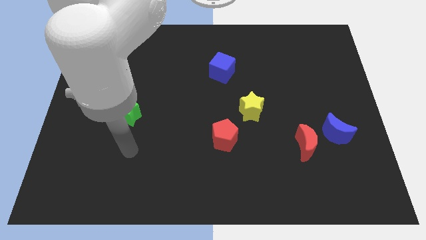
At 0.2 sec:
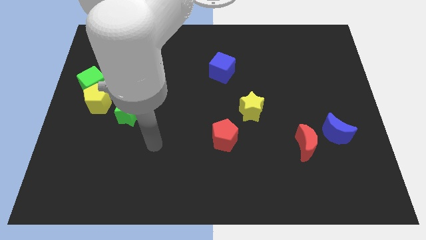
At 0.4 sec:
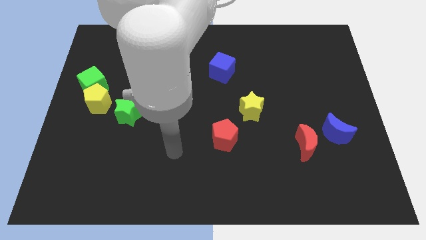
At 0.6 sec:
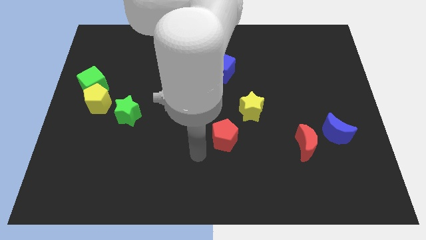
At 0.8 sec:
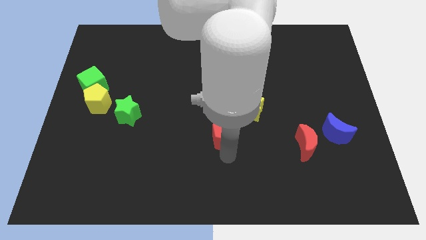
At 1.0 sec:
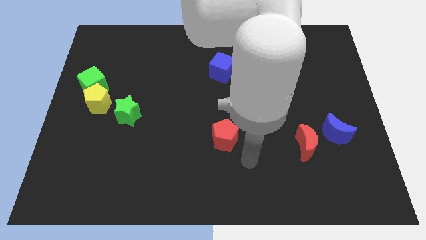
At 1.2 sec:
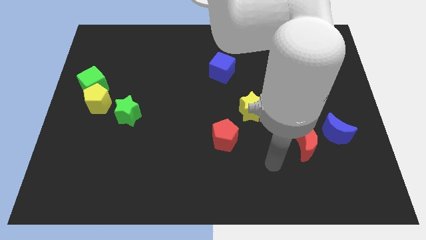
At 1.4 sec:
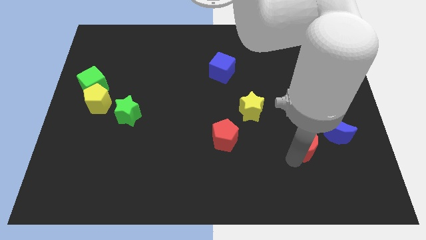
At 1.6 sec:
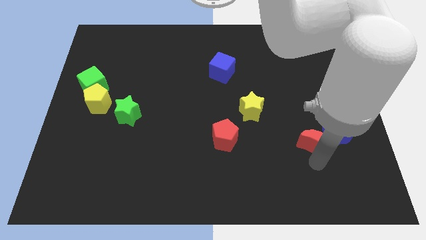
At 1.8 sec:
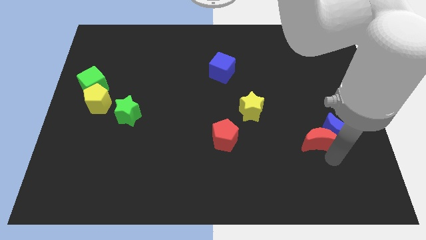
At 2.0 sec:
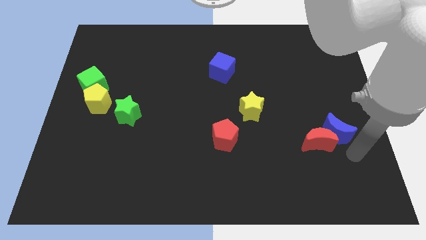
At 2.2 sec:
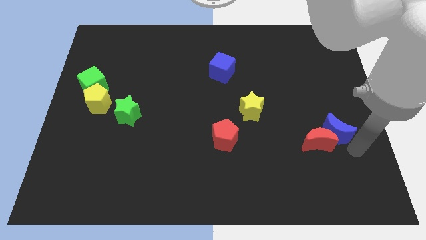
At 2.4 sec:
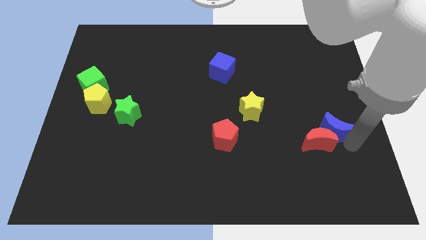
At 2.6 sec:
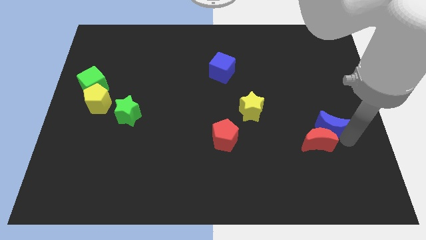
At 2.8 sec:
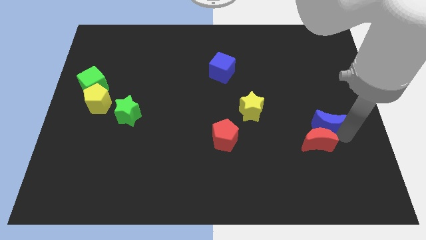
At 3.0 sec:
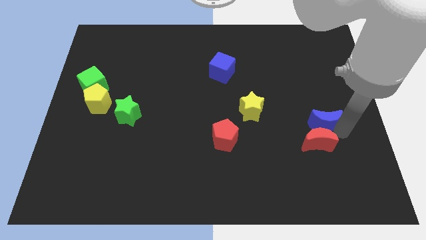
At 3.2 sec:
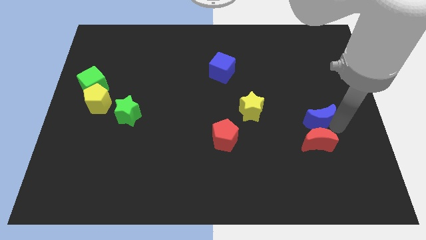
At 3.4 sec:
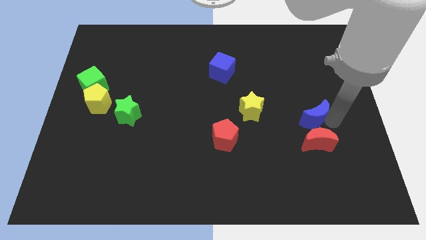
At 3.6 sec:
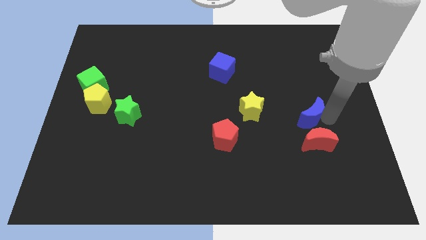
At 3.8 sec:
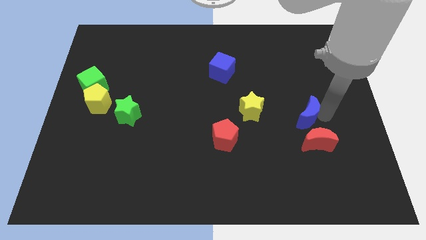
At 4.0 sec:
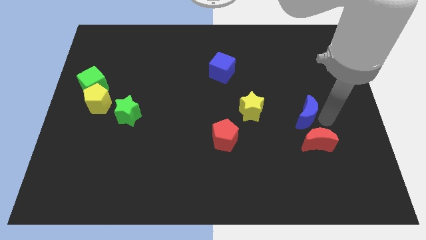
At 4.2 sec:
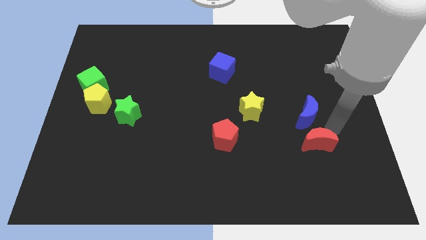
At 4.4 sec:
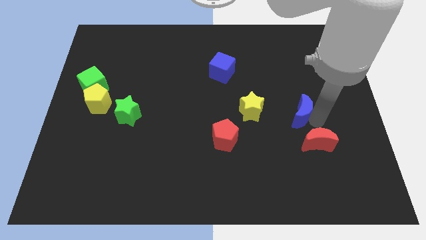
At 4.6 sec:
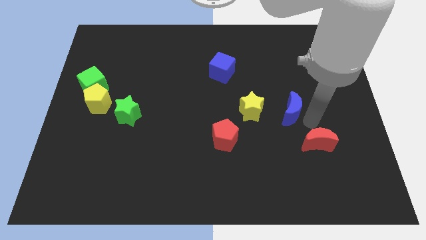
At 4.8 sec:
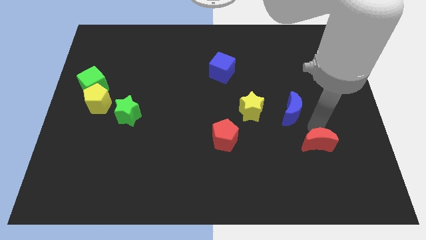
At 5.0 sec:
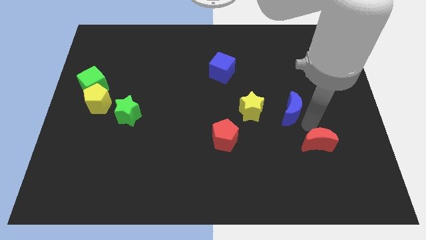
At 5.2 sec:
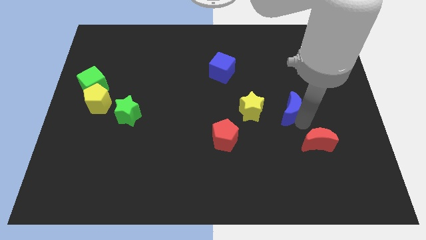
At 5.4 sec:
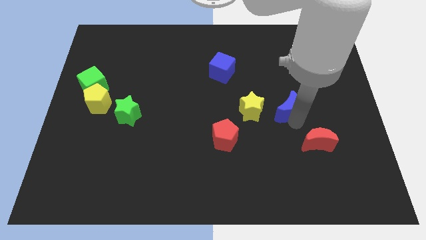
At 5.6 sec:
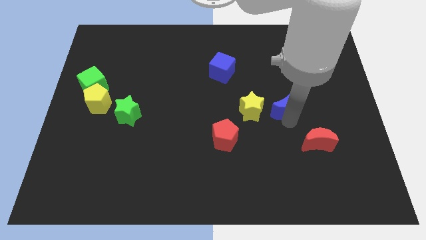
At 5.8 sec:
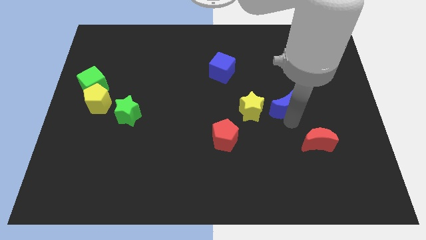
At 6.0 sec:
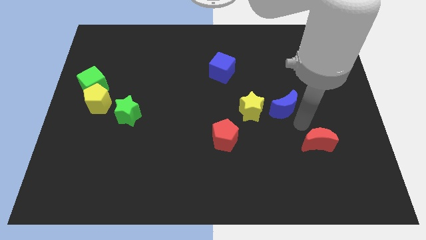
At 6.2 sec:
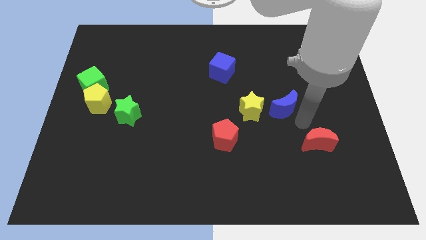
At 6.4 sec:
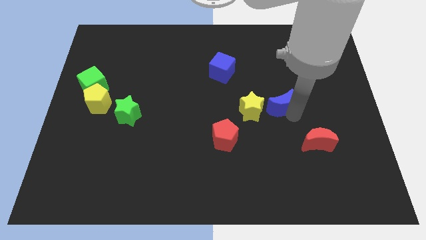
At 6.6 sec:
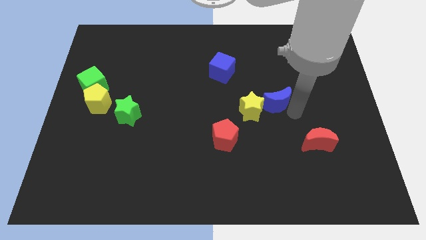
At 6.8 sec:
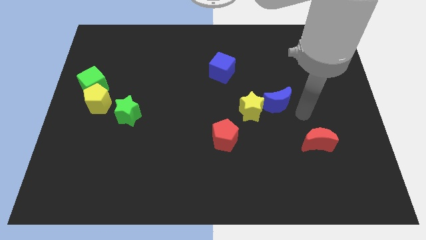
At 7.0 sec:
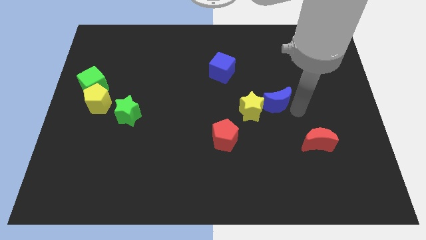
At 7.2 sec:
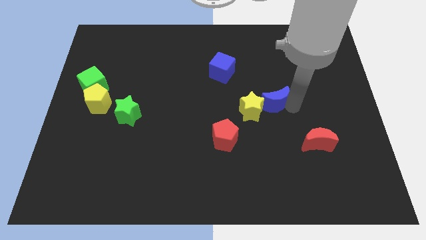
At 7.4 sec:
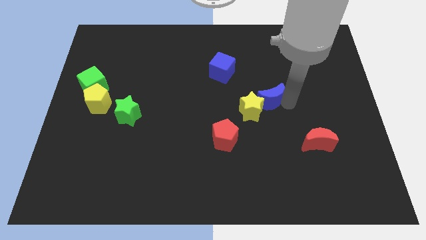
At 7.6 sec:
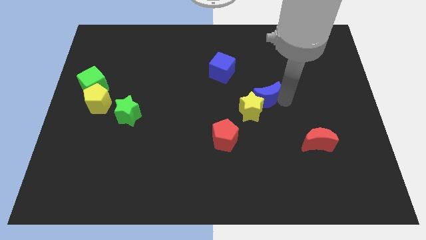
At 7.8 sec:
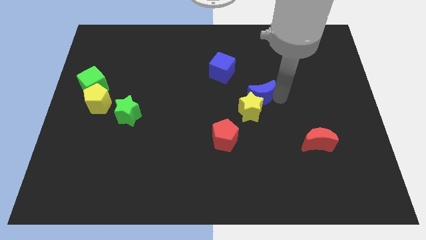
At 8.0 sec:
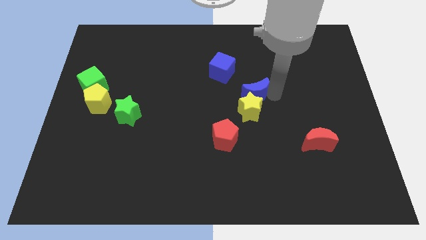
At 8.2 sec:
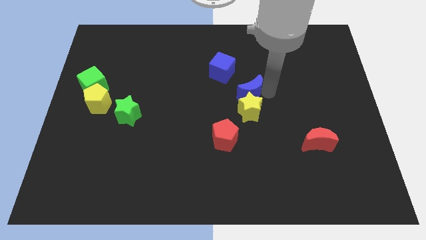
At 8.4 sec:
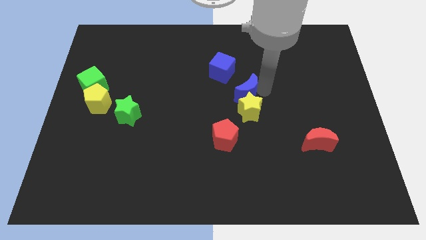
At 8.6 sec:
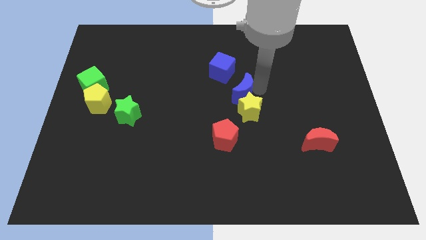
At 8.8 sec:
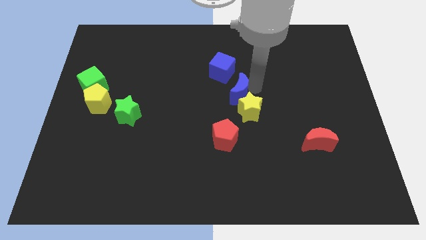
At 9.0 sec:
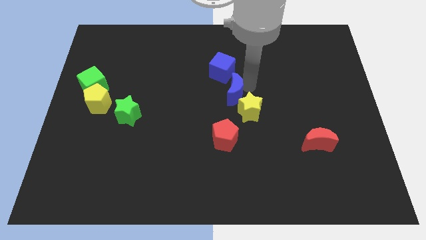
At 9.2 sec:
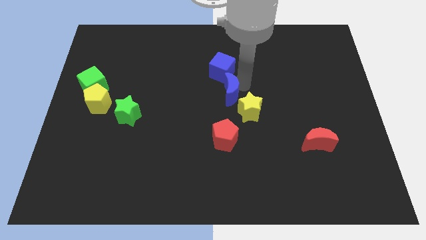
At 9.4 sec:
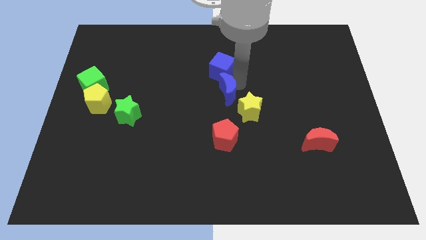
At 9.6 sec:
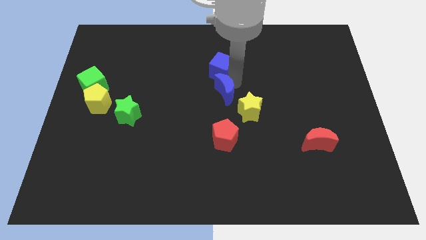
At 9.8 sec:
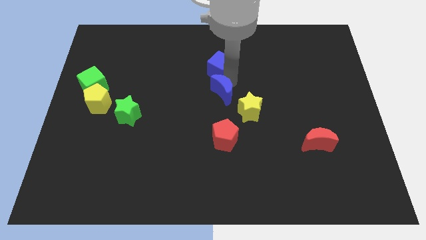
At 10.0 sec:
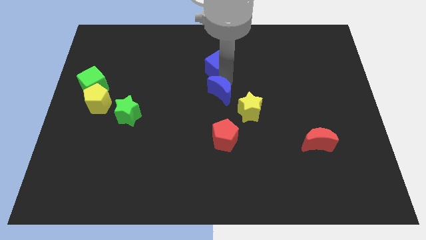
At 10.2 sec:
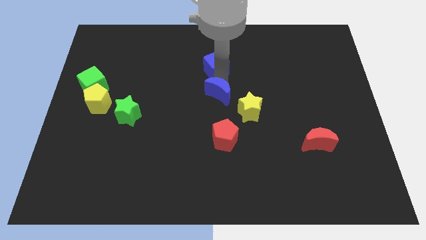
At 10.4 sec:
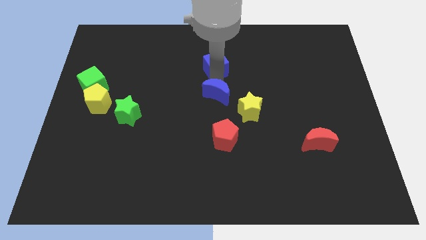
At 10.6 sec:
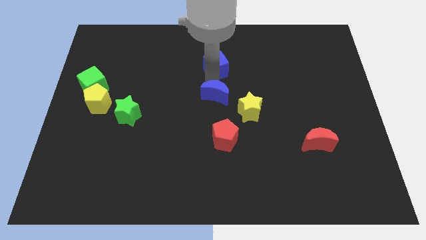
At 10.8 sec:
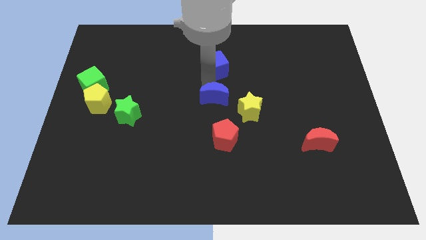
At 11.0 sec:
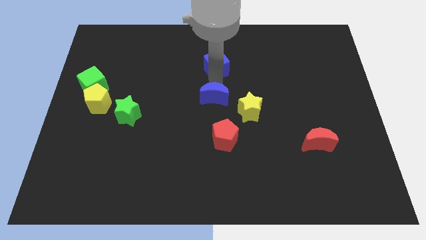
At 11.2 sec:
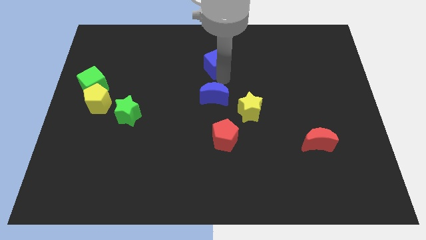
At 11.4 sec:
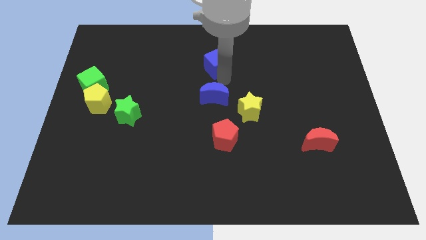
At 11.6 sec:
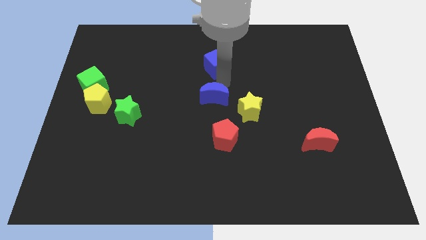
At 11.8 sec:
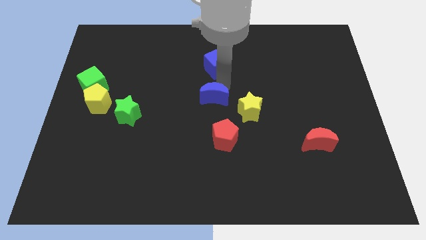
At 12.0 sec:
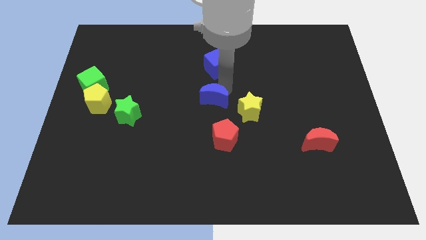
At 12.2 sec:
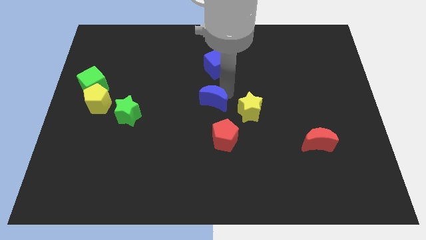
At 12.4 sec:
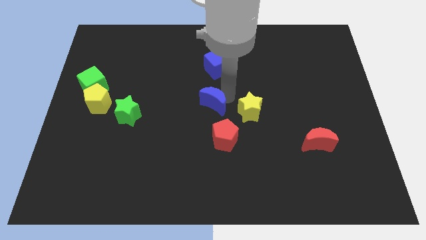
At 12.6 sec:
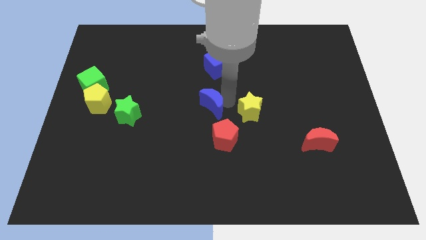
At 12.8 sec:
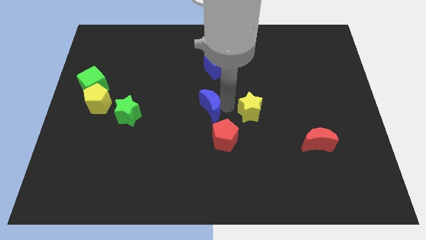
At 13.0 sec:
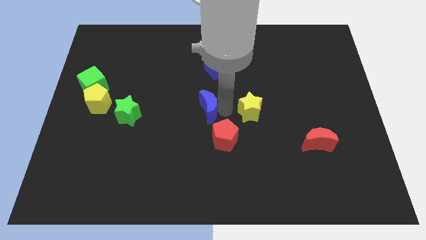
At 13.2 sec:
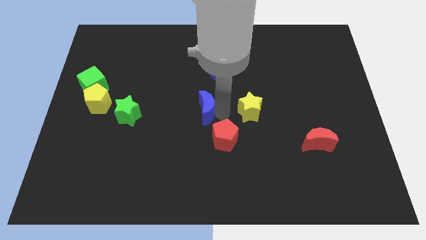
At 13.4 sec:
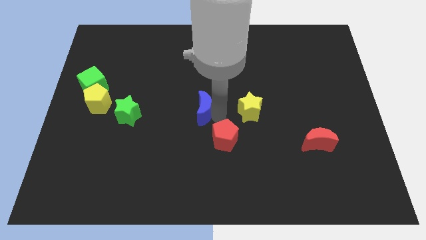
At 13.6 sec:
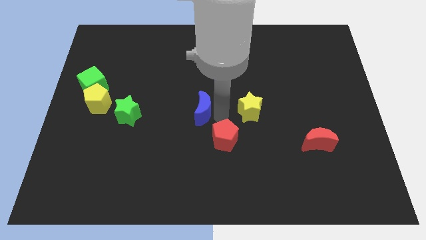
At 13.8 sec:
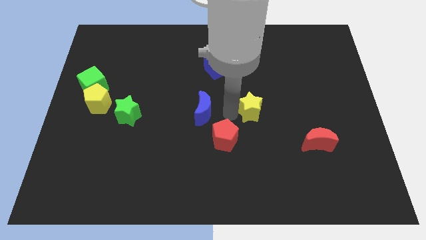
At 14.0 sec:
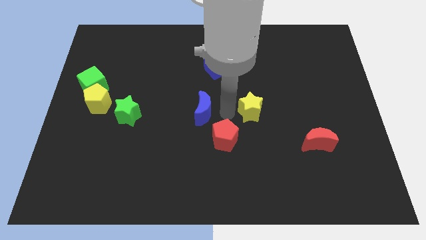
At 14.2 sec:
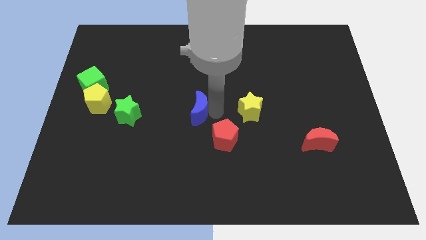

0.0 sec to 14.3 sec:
slide the blue moon to the right side of the green star
